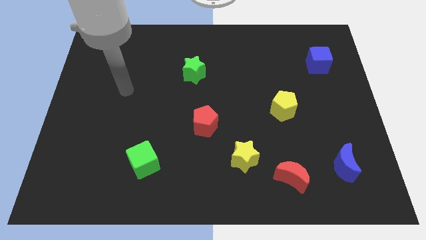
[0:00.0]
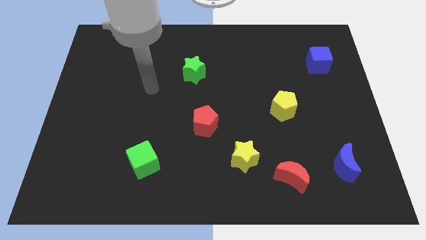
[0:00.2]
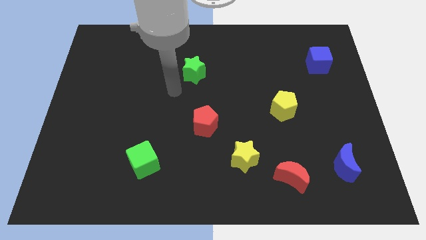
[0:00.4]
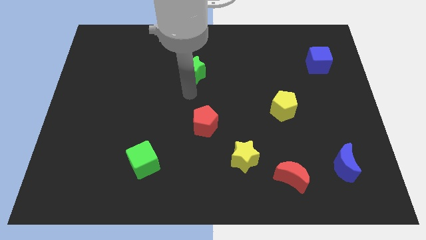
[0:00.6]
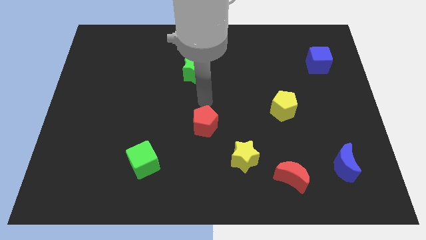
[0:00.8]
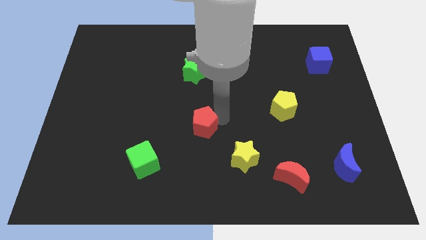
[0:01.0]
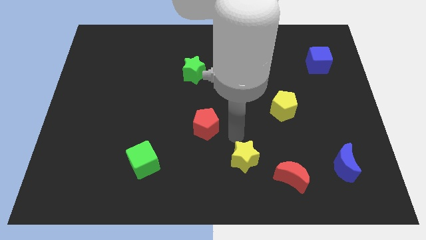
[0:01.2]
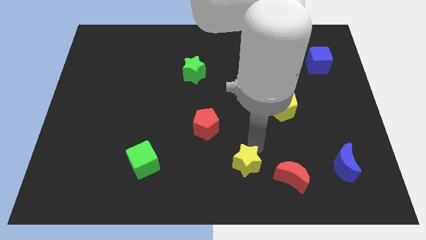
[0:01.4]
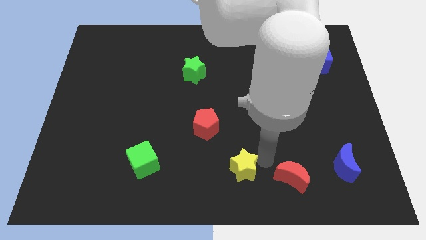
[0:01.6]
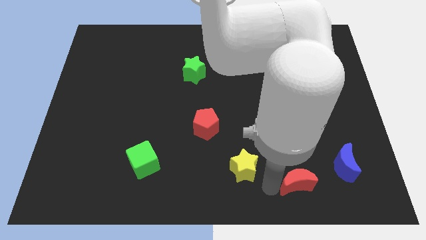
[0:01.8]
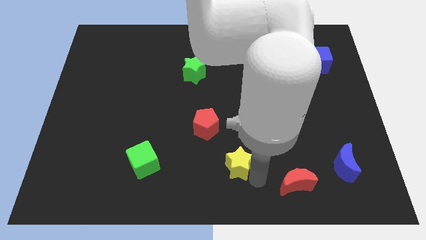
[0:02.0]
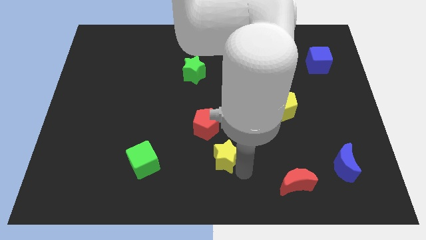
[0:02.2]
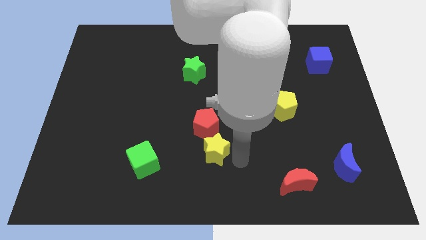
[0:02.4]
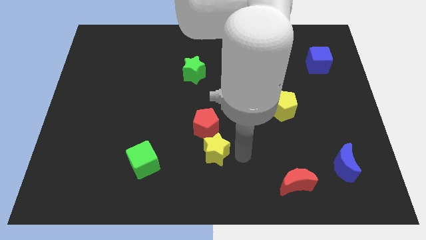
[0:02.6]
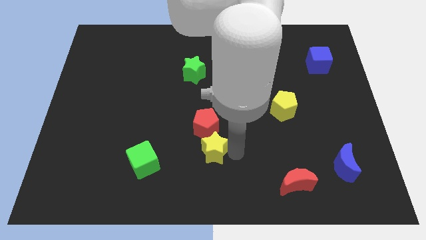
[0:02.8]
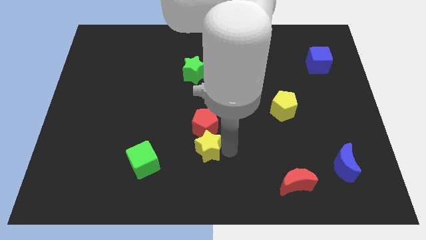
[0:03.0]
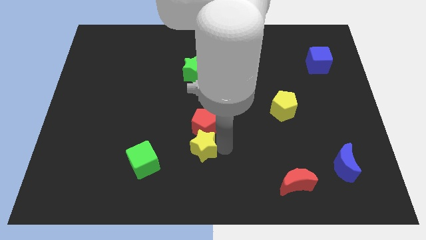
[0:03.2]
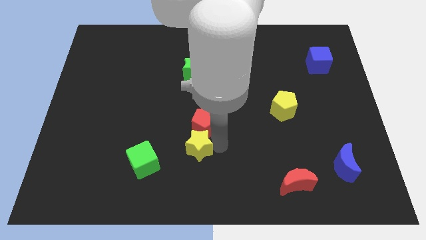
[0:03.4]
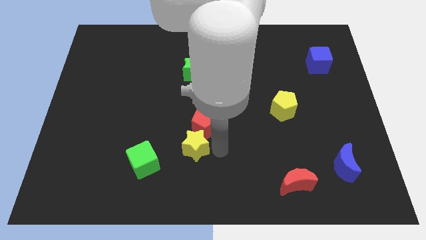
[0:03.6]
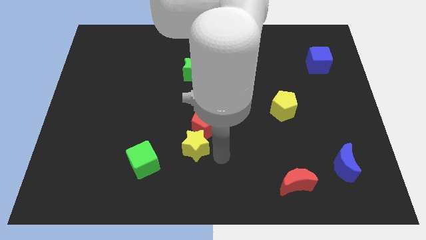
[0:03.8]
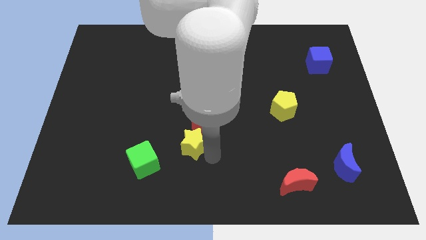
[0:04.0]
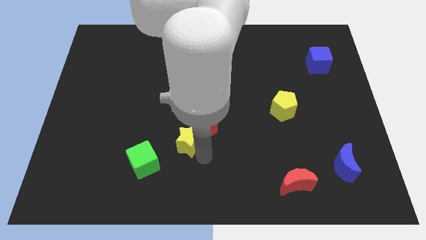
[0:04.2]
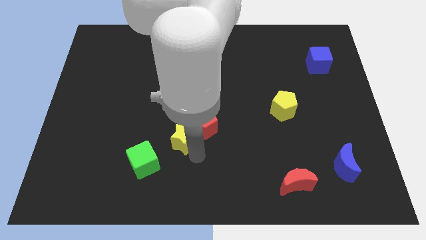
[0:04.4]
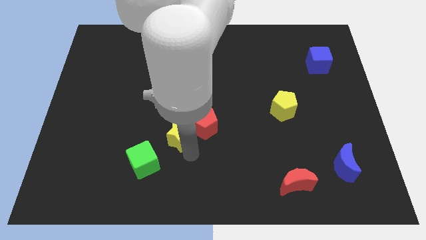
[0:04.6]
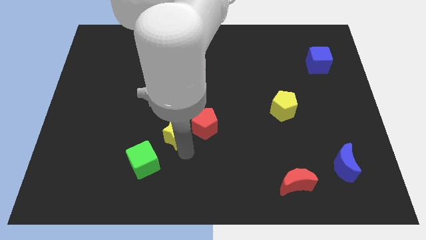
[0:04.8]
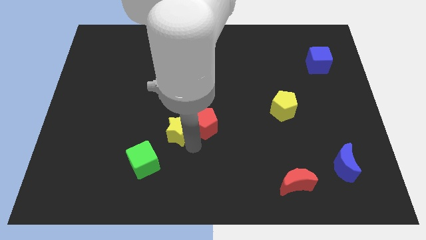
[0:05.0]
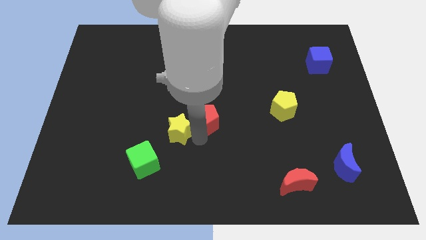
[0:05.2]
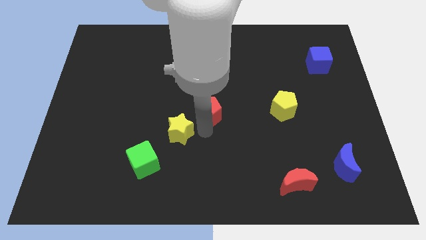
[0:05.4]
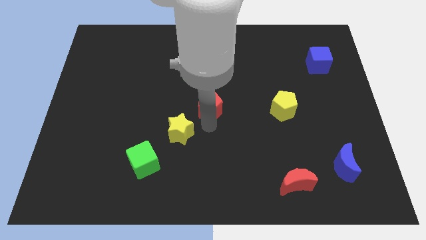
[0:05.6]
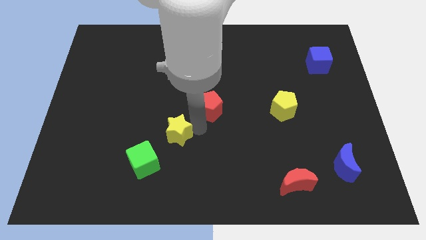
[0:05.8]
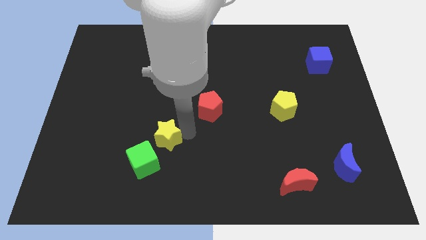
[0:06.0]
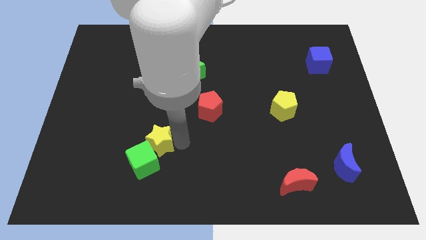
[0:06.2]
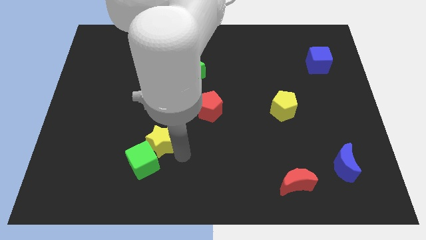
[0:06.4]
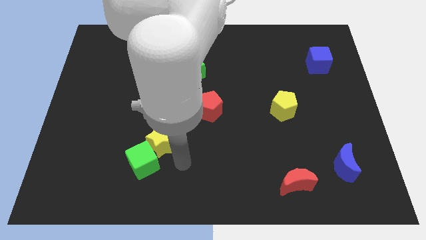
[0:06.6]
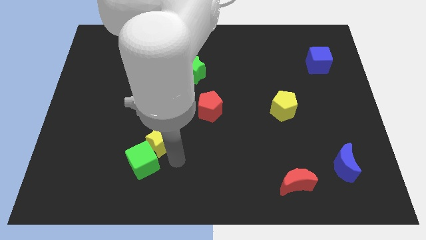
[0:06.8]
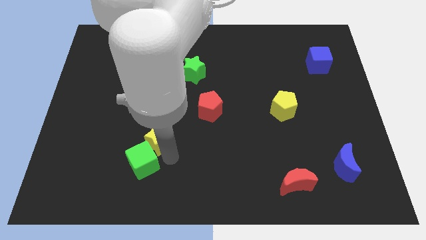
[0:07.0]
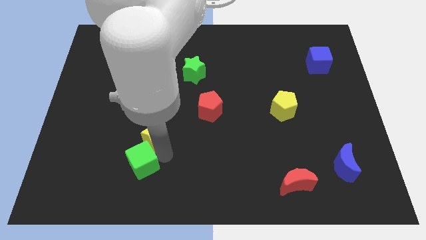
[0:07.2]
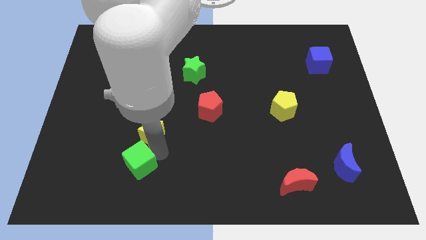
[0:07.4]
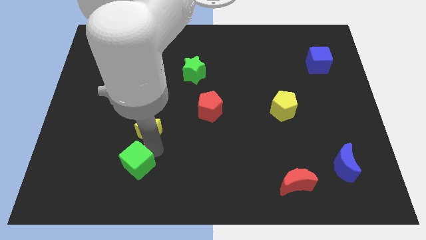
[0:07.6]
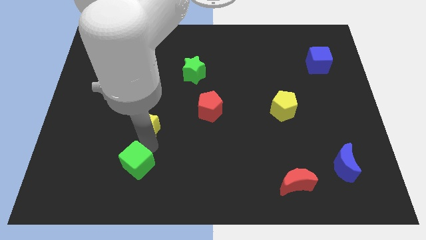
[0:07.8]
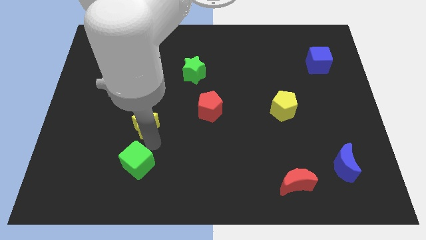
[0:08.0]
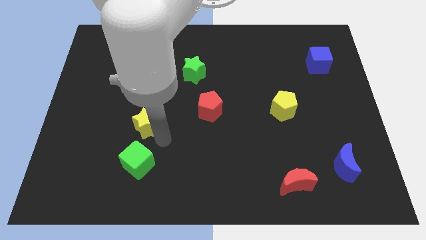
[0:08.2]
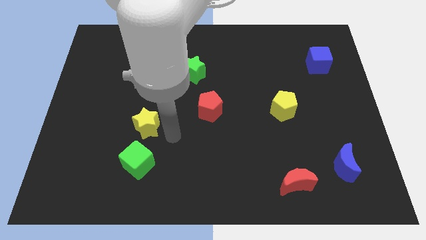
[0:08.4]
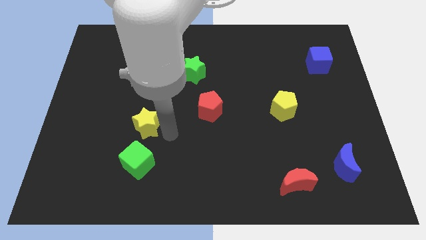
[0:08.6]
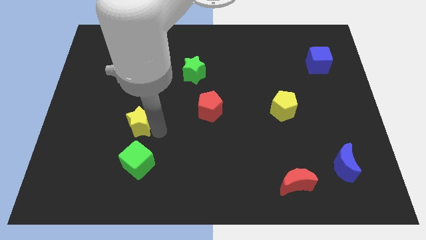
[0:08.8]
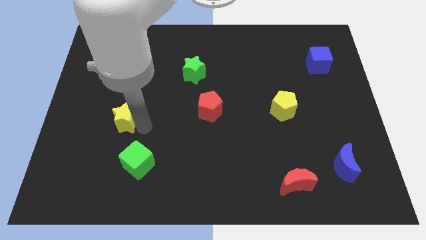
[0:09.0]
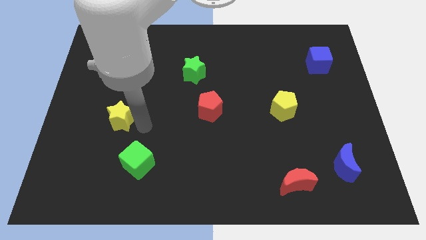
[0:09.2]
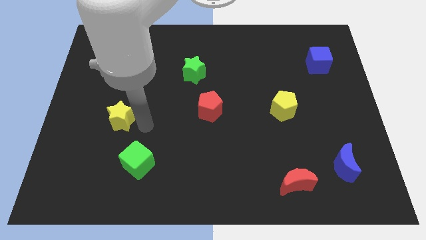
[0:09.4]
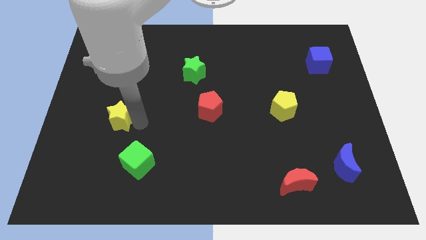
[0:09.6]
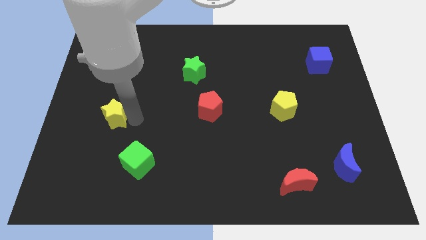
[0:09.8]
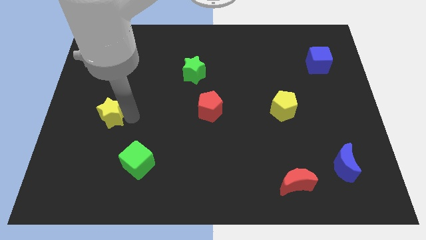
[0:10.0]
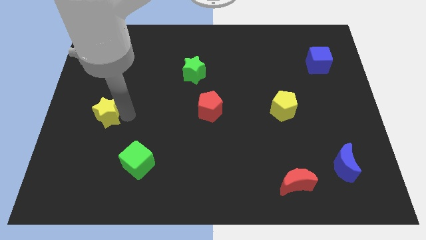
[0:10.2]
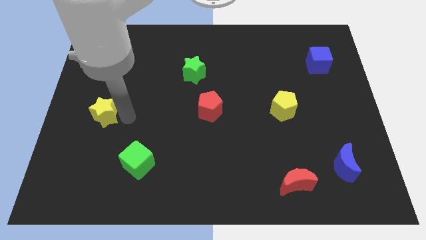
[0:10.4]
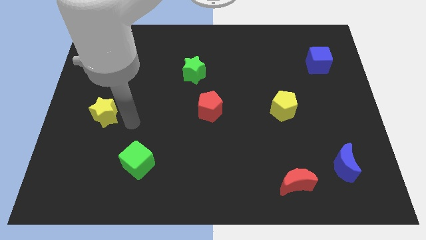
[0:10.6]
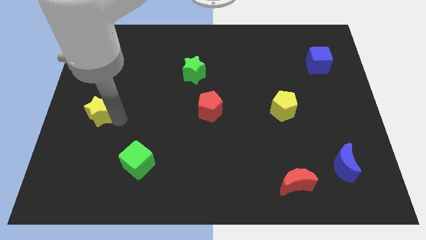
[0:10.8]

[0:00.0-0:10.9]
put the yellow star to the left side of the board
